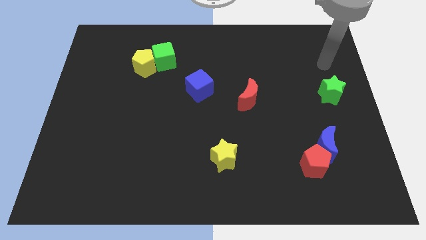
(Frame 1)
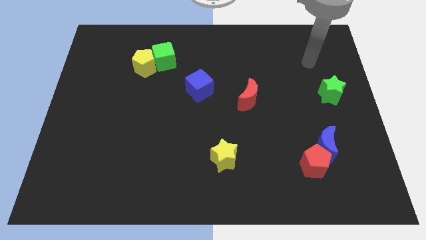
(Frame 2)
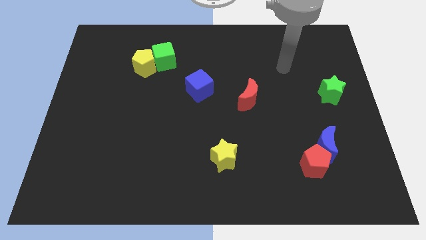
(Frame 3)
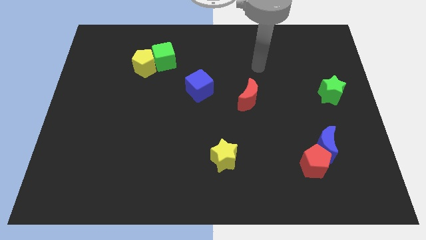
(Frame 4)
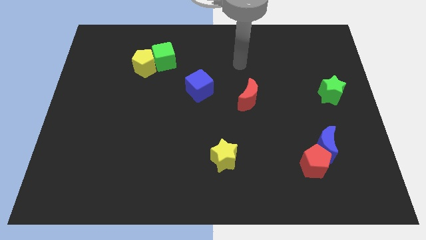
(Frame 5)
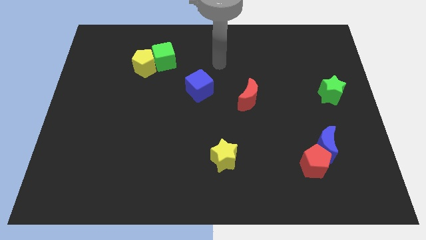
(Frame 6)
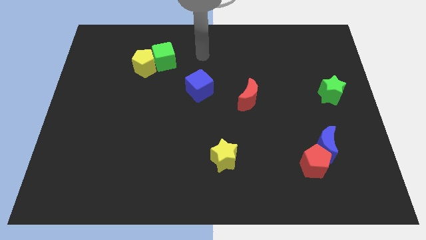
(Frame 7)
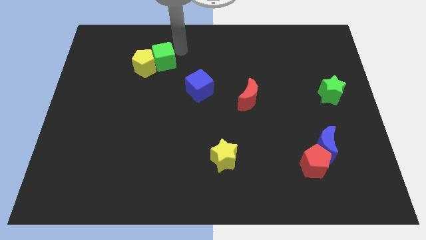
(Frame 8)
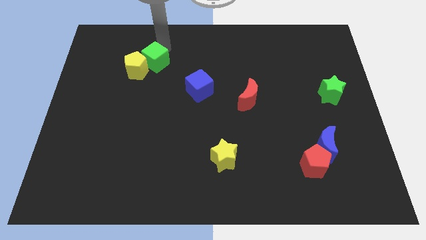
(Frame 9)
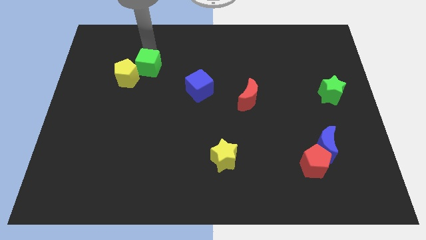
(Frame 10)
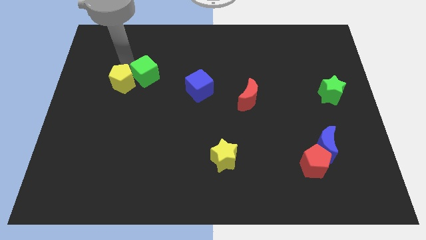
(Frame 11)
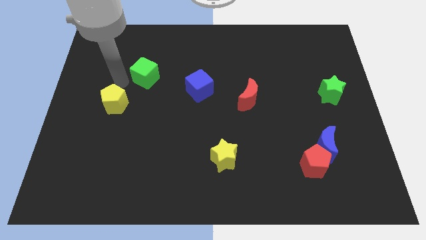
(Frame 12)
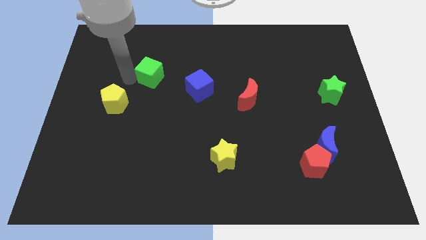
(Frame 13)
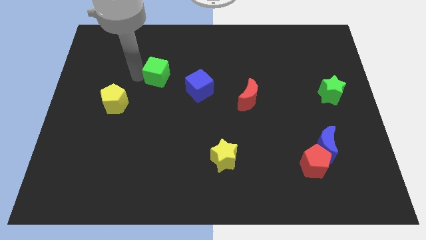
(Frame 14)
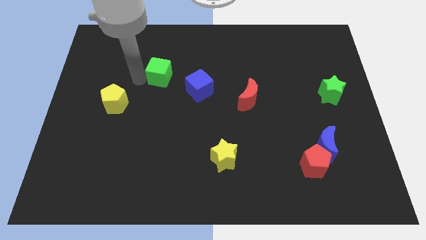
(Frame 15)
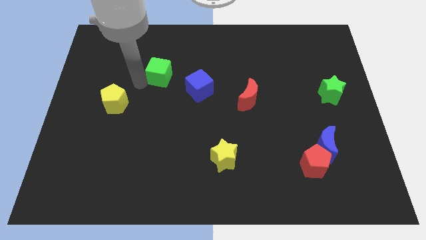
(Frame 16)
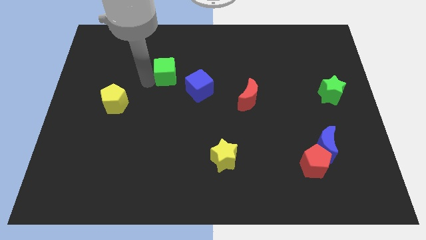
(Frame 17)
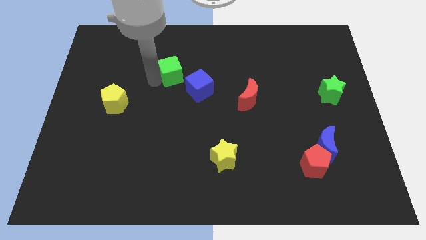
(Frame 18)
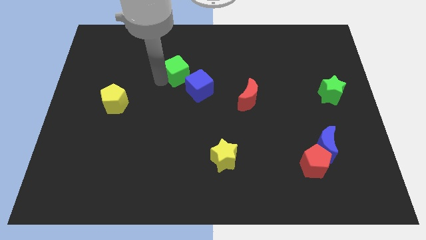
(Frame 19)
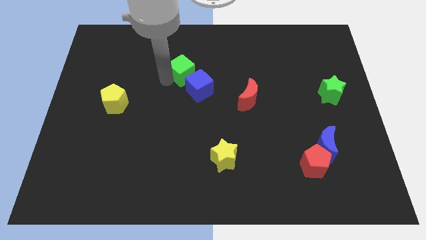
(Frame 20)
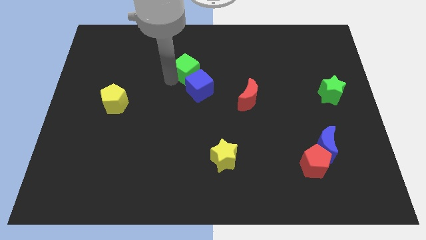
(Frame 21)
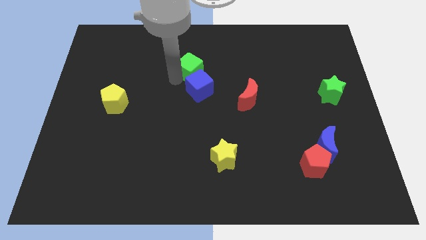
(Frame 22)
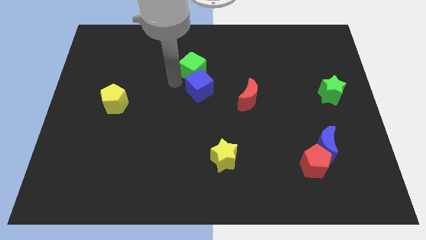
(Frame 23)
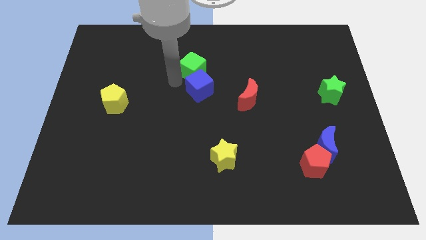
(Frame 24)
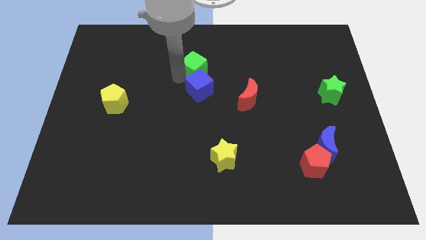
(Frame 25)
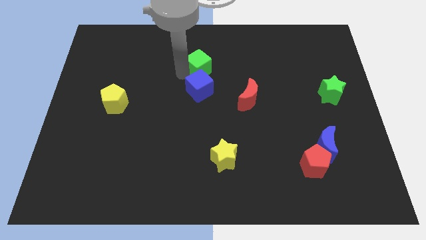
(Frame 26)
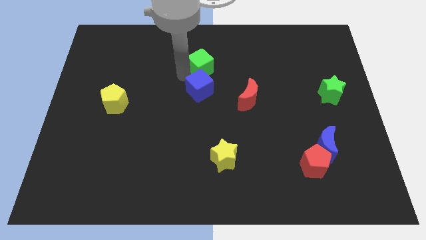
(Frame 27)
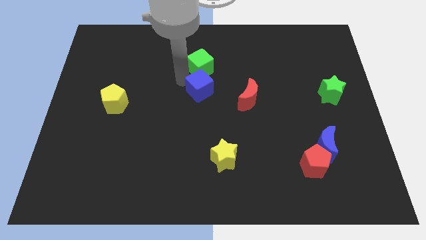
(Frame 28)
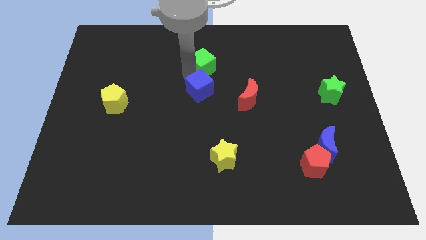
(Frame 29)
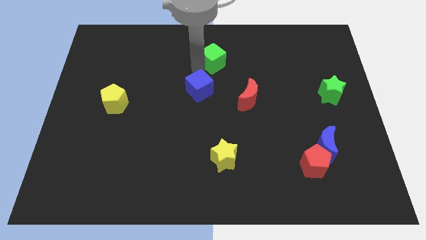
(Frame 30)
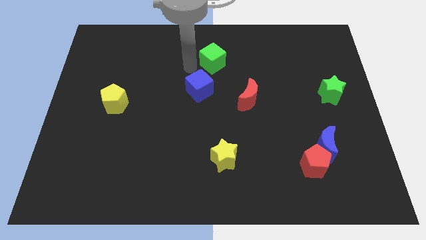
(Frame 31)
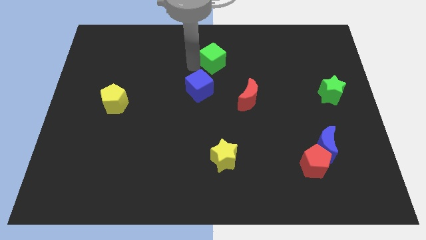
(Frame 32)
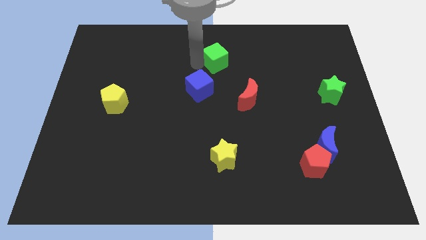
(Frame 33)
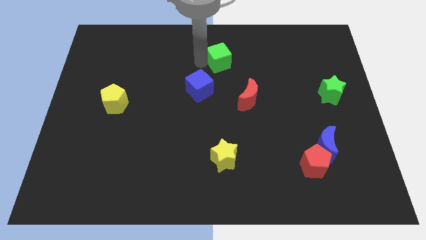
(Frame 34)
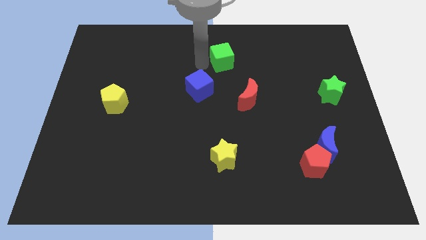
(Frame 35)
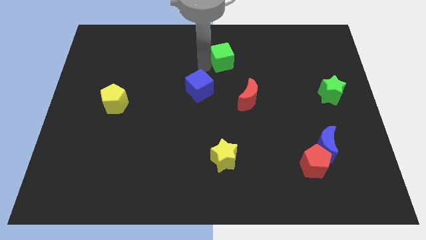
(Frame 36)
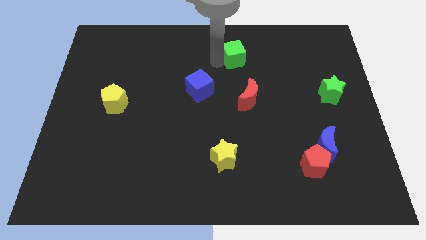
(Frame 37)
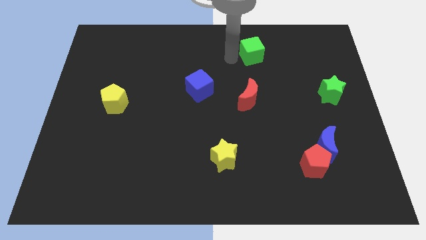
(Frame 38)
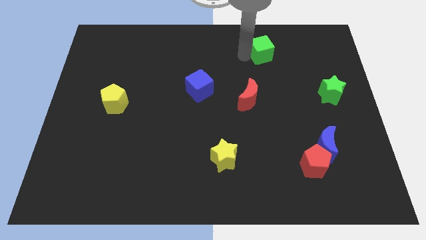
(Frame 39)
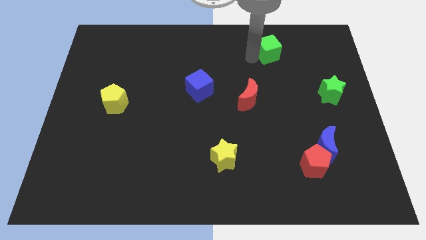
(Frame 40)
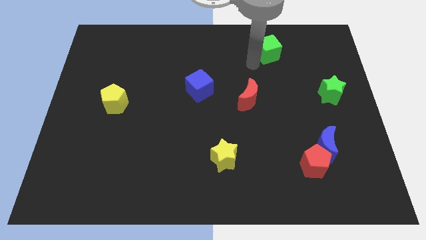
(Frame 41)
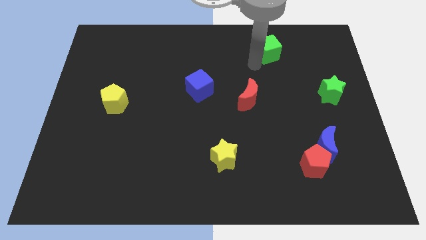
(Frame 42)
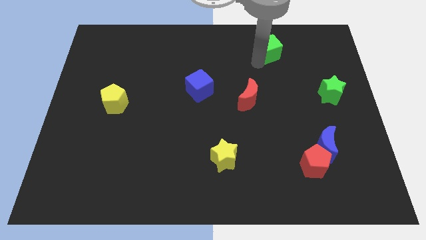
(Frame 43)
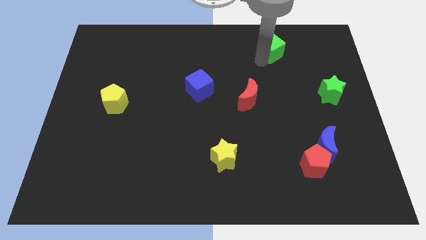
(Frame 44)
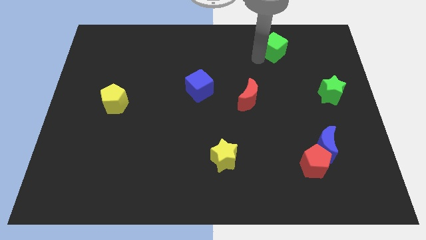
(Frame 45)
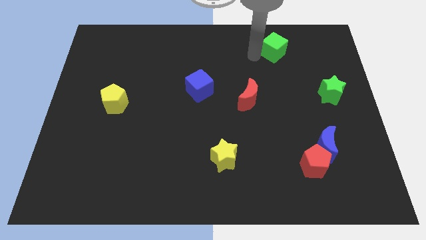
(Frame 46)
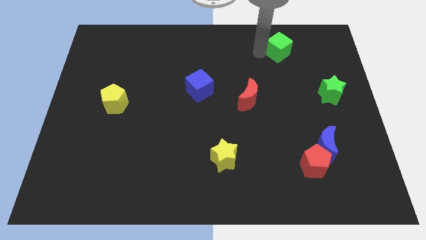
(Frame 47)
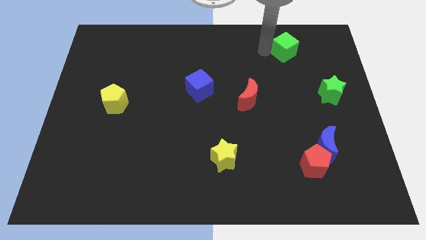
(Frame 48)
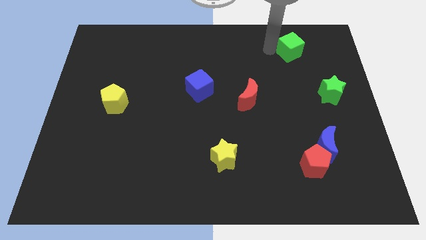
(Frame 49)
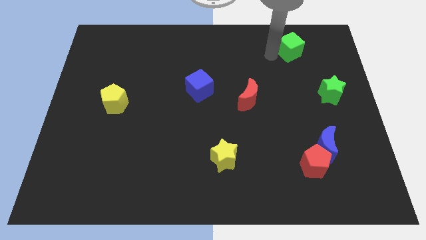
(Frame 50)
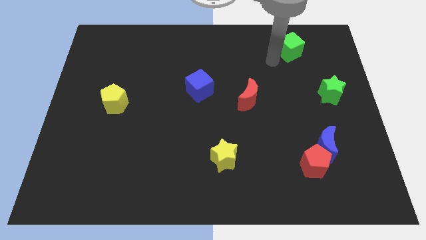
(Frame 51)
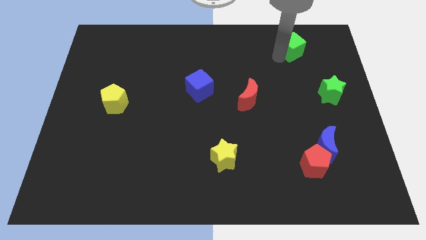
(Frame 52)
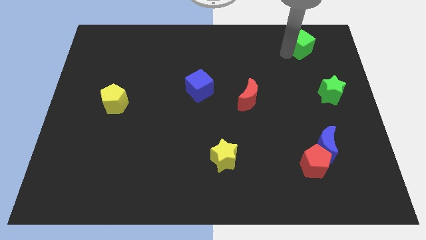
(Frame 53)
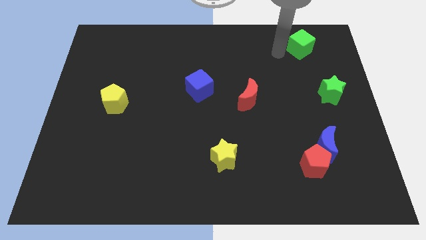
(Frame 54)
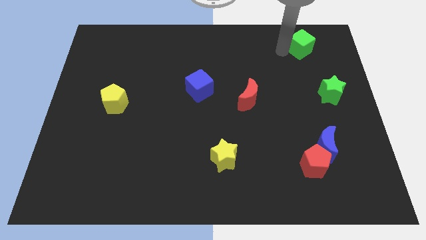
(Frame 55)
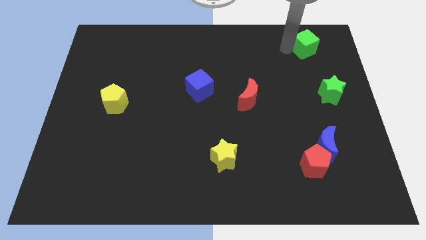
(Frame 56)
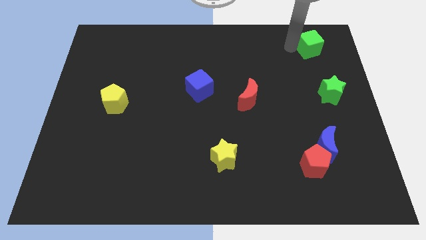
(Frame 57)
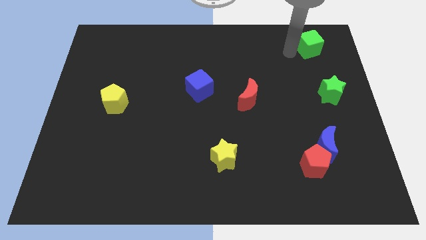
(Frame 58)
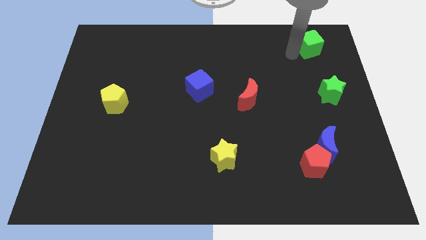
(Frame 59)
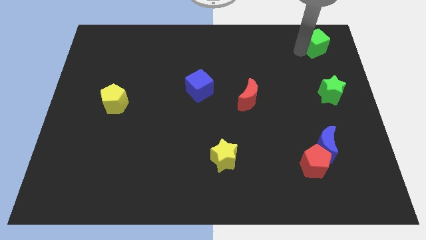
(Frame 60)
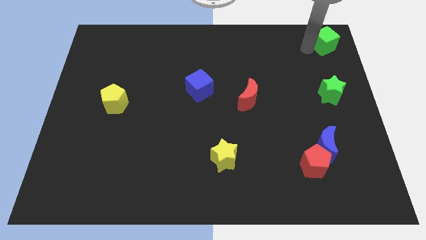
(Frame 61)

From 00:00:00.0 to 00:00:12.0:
slide the green cube to the top right
